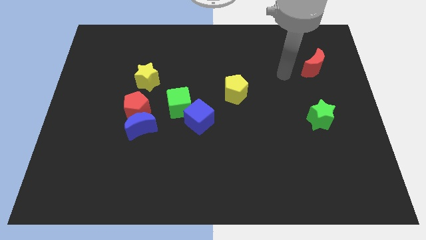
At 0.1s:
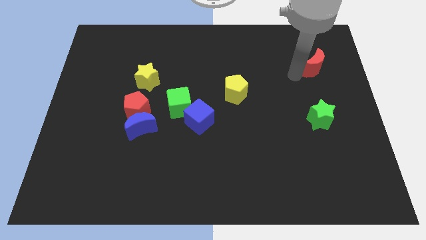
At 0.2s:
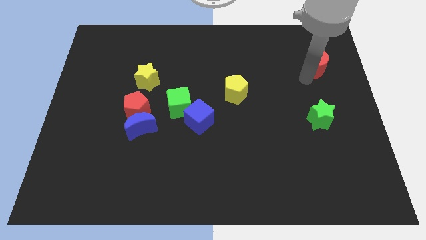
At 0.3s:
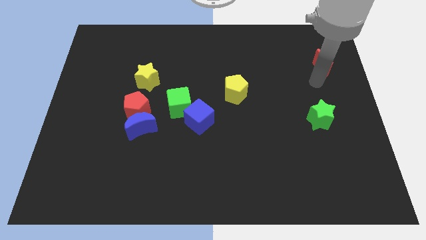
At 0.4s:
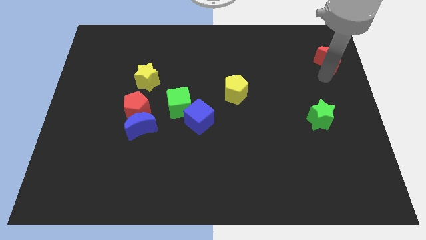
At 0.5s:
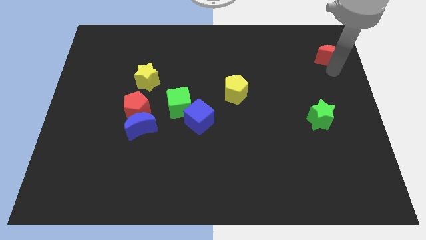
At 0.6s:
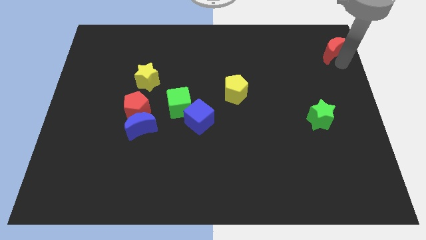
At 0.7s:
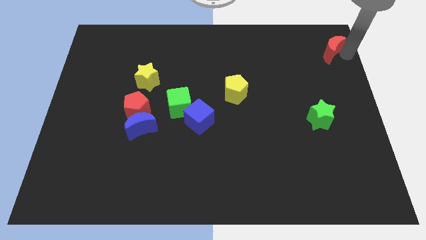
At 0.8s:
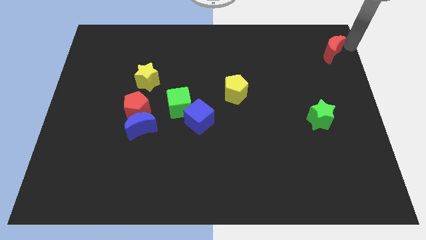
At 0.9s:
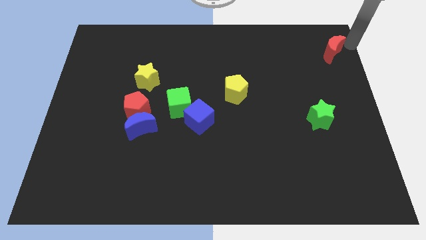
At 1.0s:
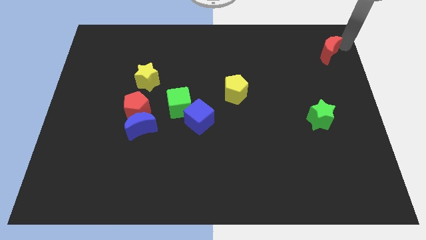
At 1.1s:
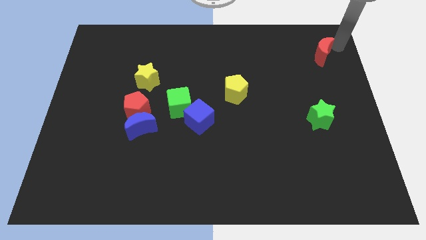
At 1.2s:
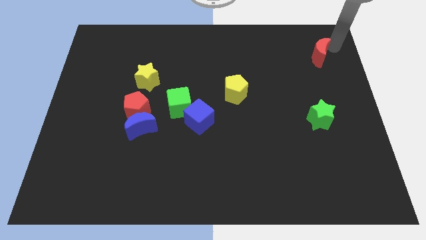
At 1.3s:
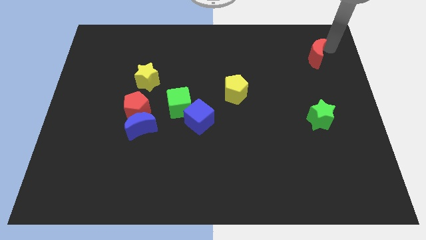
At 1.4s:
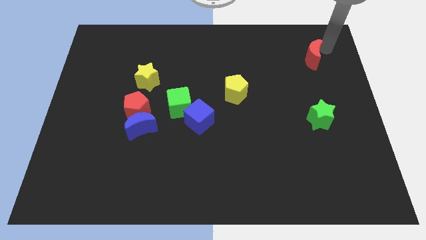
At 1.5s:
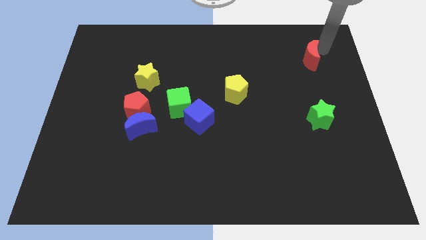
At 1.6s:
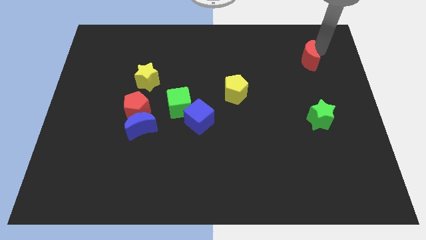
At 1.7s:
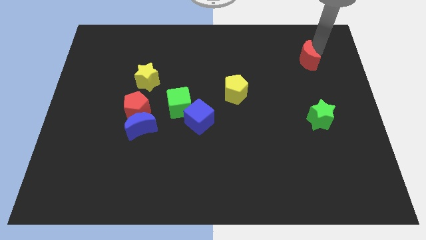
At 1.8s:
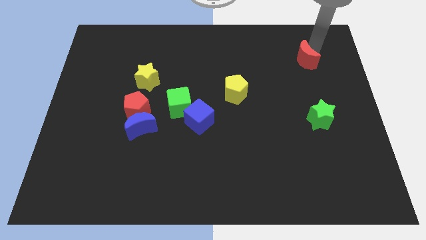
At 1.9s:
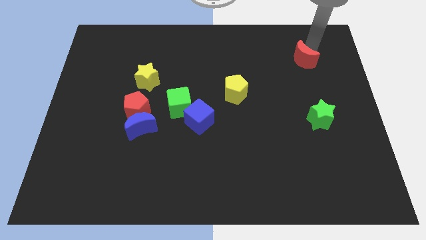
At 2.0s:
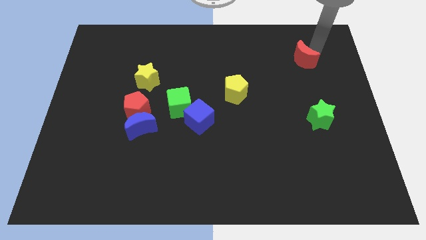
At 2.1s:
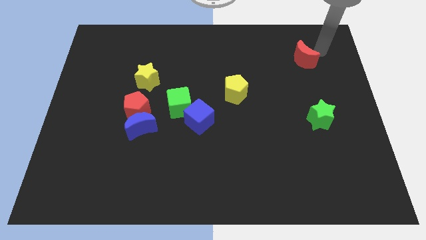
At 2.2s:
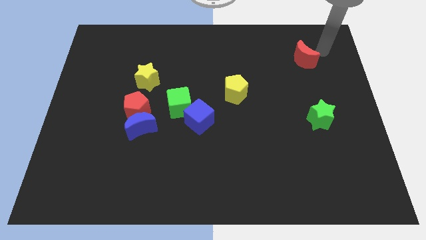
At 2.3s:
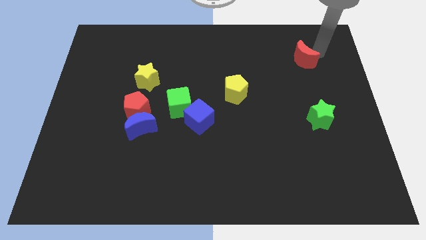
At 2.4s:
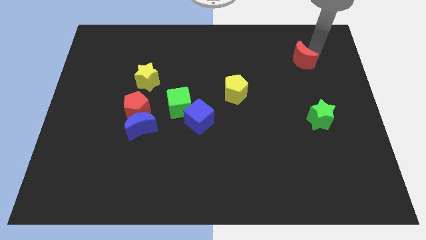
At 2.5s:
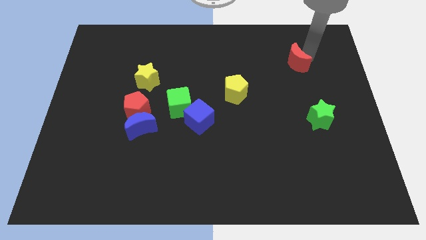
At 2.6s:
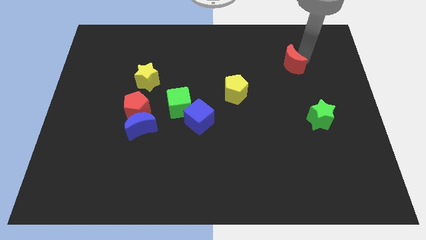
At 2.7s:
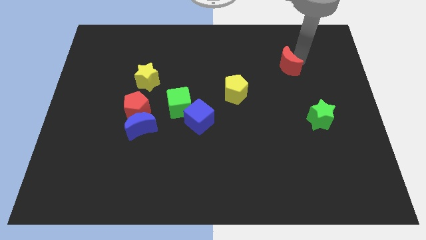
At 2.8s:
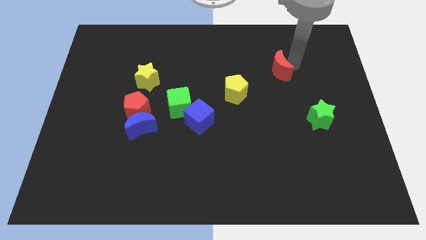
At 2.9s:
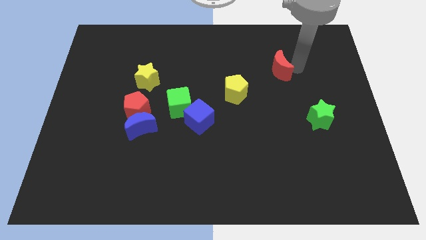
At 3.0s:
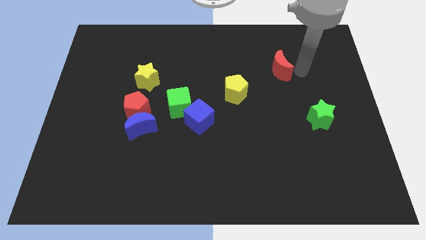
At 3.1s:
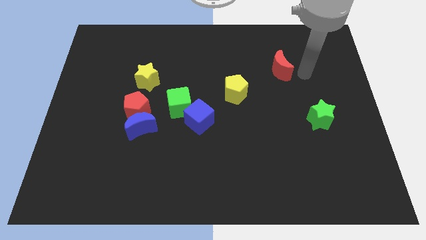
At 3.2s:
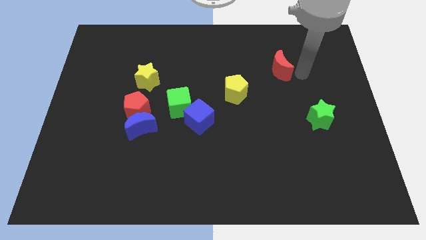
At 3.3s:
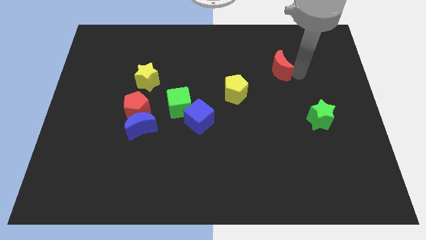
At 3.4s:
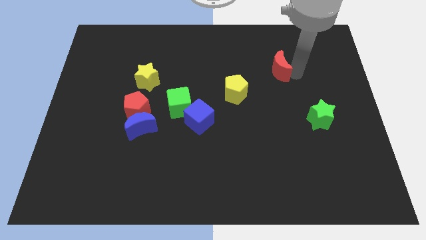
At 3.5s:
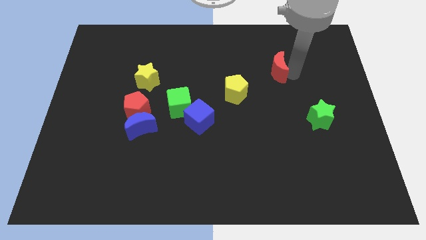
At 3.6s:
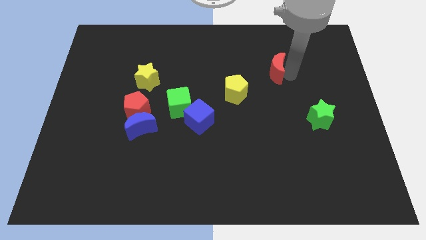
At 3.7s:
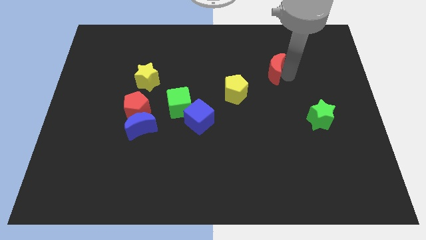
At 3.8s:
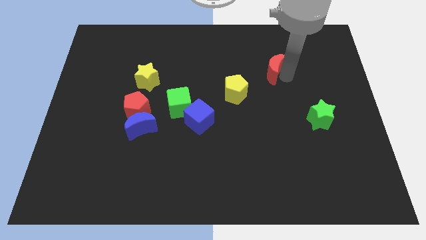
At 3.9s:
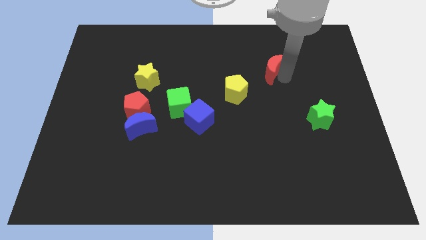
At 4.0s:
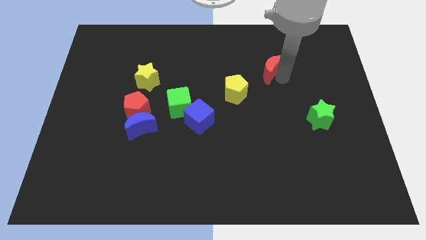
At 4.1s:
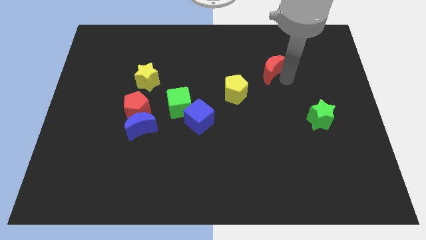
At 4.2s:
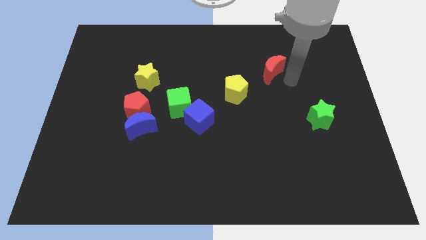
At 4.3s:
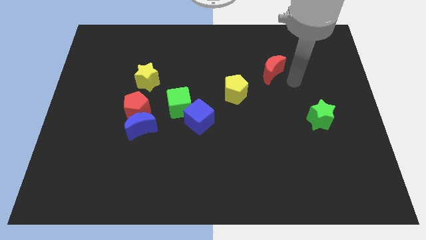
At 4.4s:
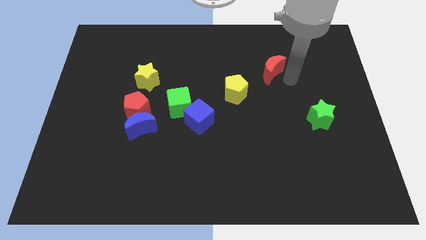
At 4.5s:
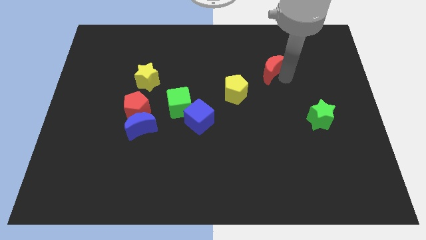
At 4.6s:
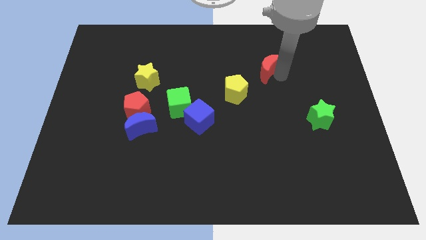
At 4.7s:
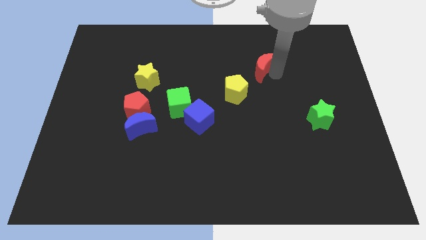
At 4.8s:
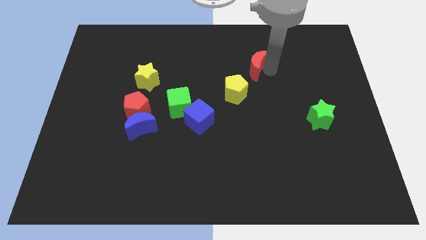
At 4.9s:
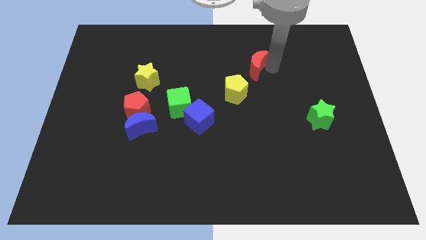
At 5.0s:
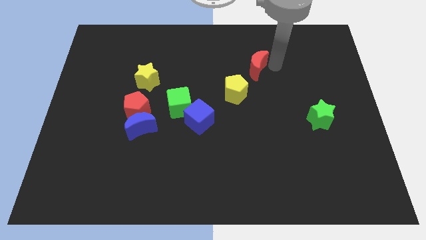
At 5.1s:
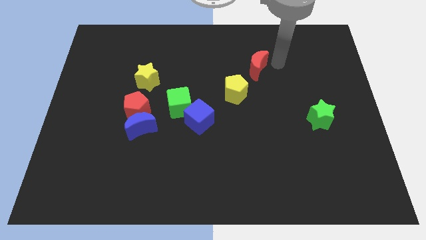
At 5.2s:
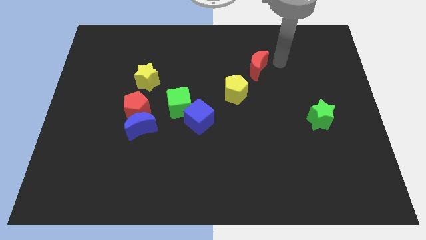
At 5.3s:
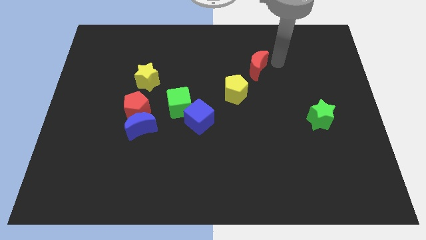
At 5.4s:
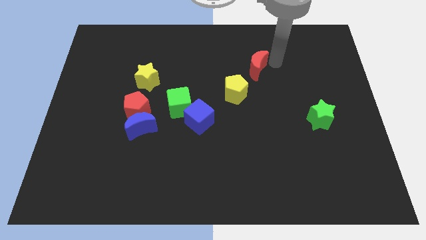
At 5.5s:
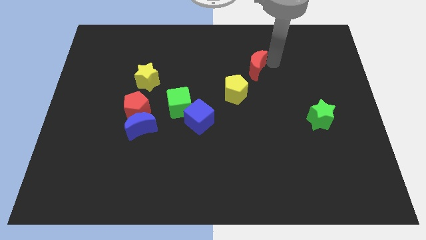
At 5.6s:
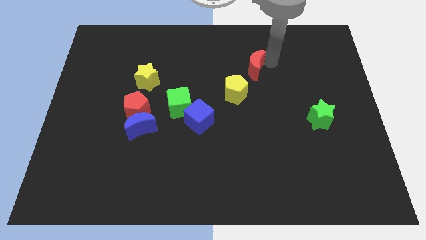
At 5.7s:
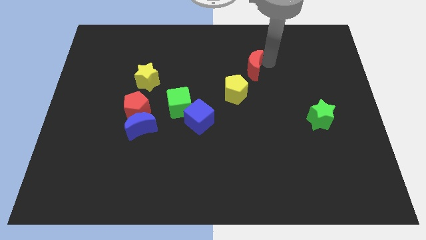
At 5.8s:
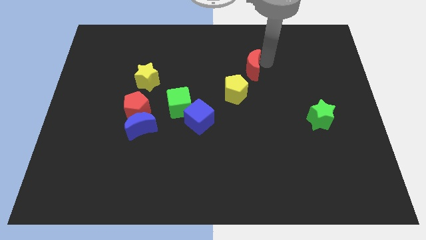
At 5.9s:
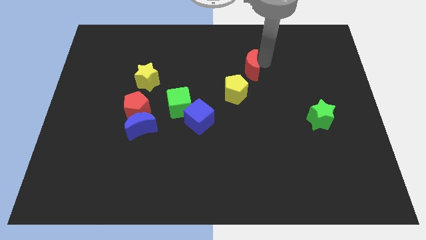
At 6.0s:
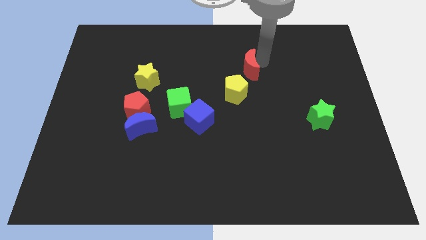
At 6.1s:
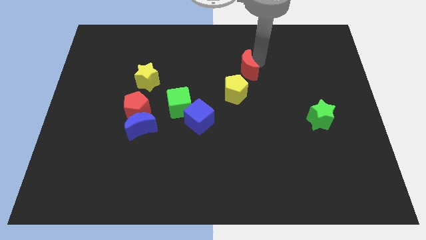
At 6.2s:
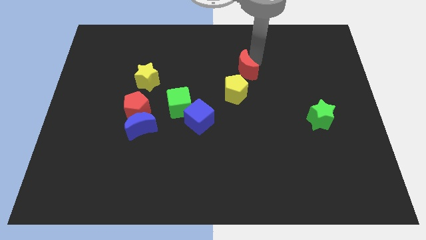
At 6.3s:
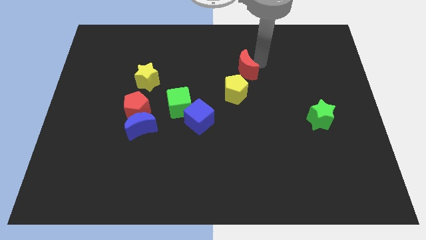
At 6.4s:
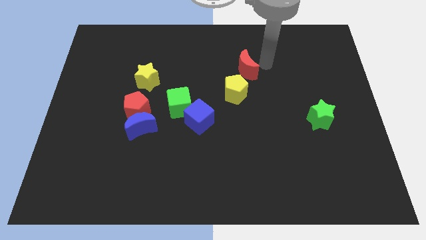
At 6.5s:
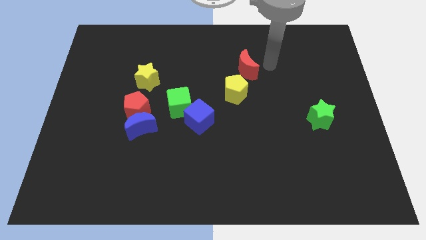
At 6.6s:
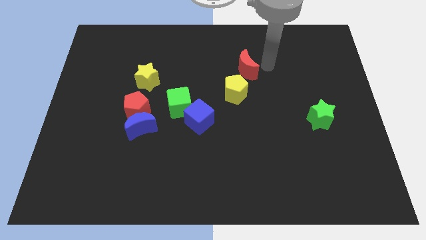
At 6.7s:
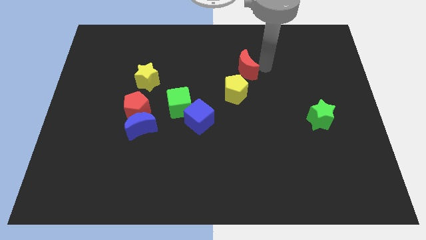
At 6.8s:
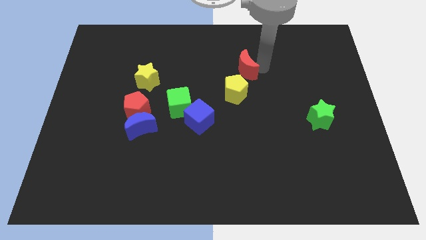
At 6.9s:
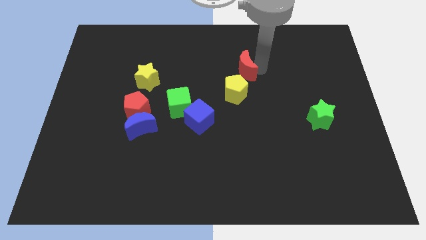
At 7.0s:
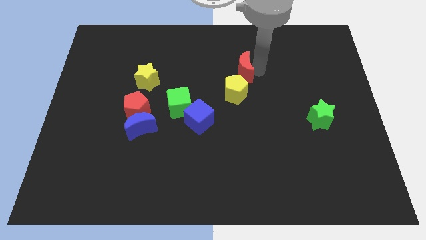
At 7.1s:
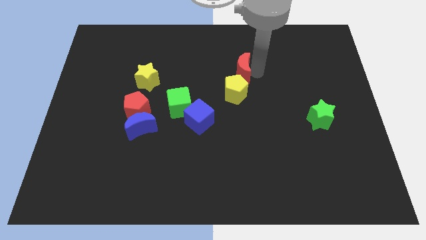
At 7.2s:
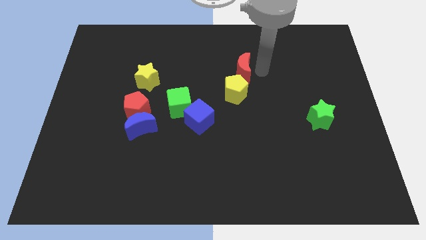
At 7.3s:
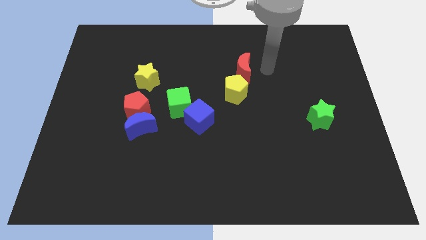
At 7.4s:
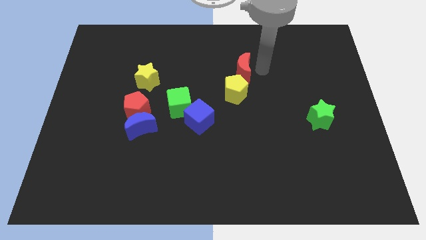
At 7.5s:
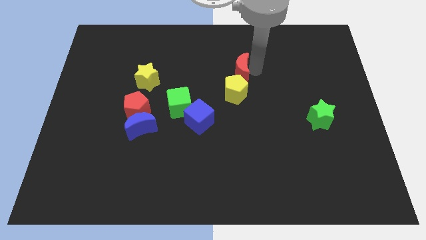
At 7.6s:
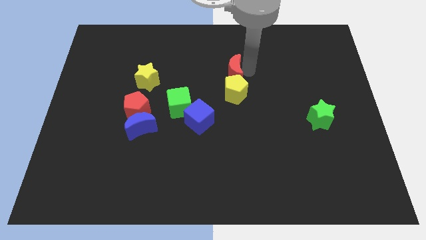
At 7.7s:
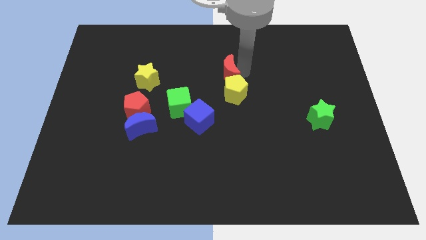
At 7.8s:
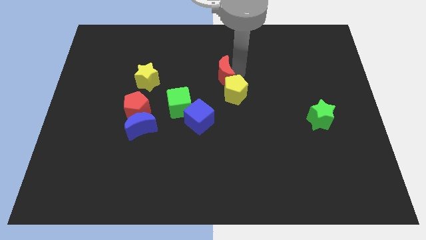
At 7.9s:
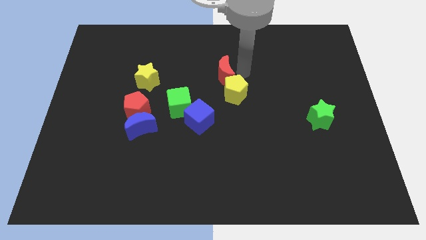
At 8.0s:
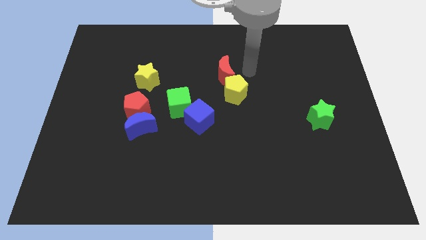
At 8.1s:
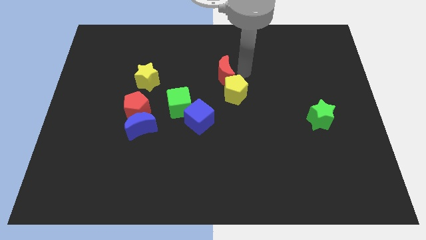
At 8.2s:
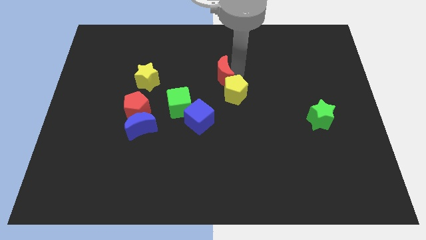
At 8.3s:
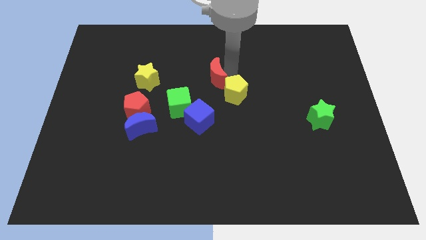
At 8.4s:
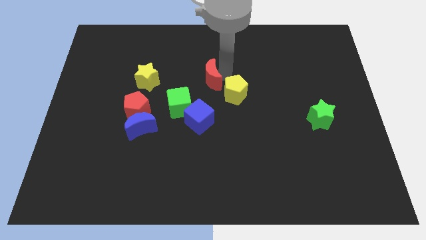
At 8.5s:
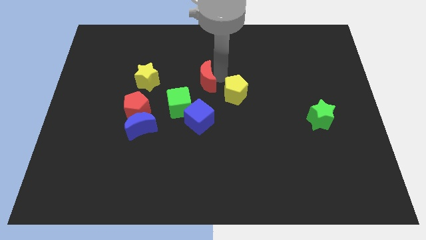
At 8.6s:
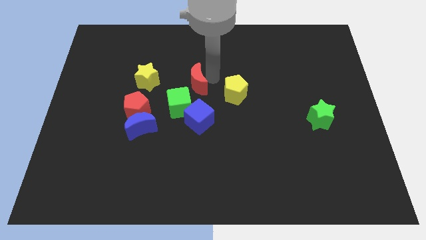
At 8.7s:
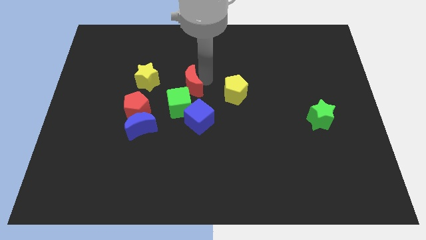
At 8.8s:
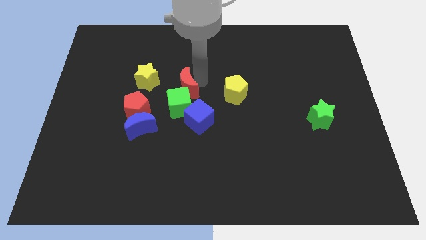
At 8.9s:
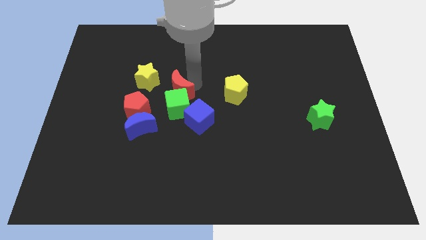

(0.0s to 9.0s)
move the red moon diagonally up and to the right of the red pentagon
